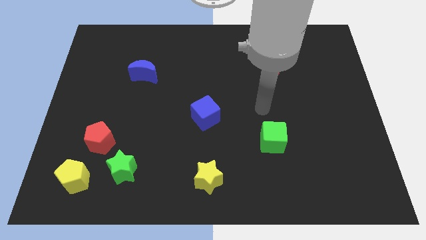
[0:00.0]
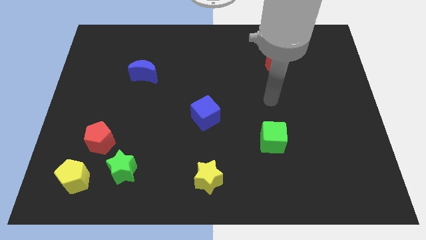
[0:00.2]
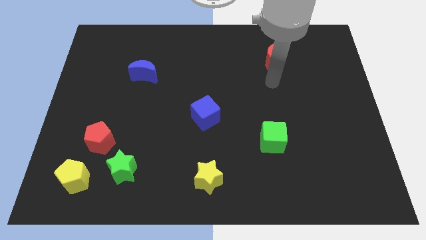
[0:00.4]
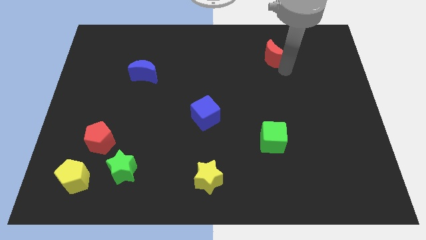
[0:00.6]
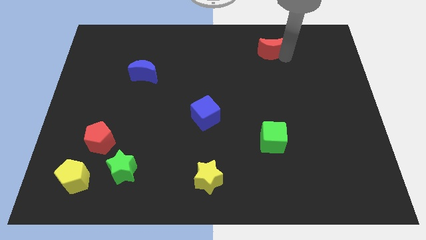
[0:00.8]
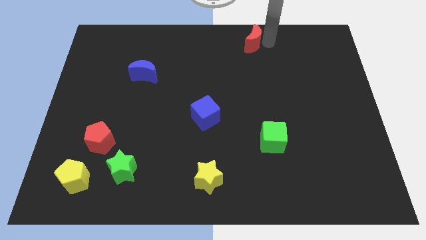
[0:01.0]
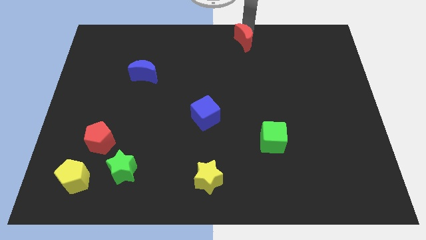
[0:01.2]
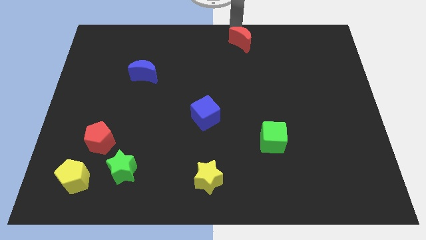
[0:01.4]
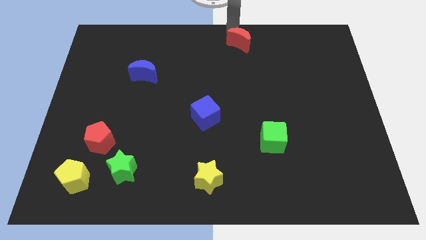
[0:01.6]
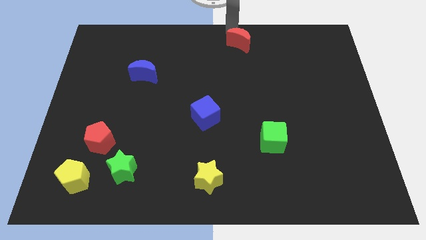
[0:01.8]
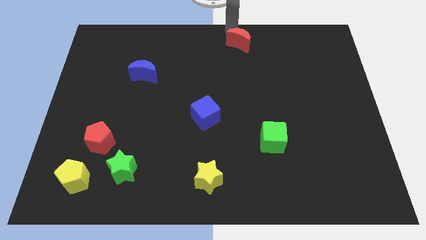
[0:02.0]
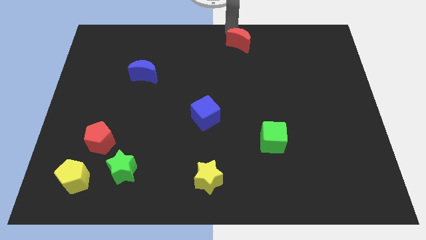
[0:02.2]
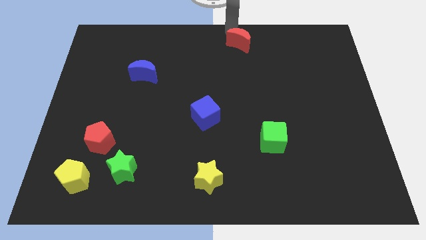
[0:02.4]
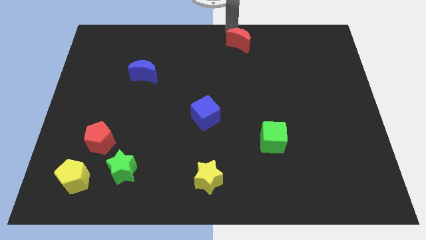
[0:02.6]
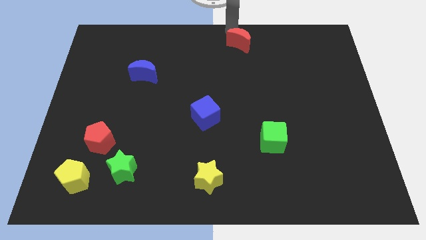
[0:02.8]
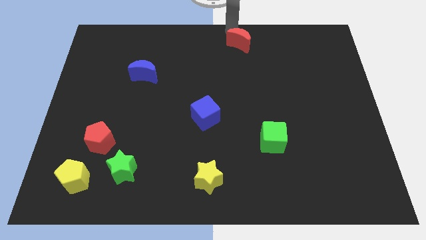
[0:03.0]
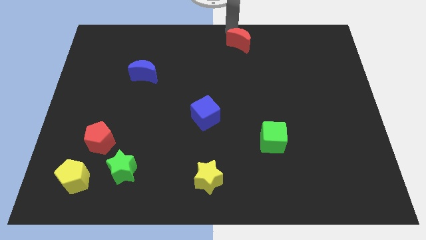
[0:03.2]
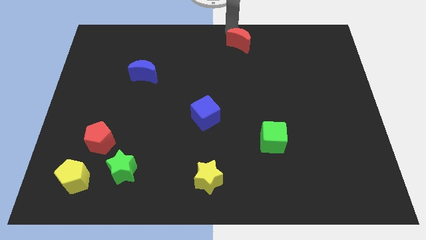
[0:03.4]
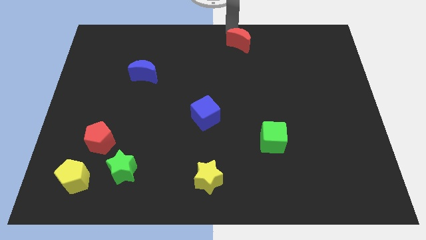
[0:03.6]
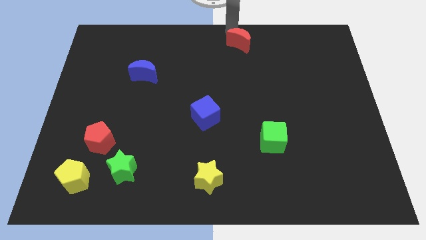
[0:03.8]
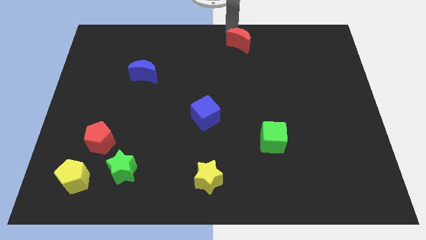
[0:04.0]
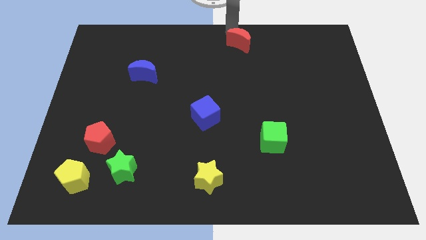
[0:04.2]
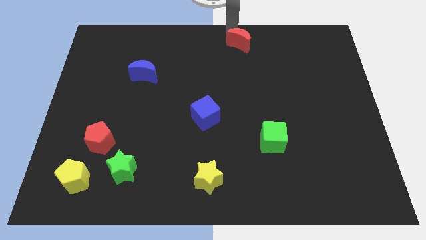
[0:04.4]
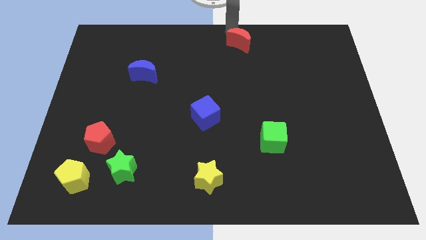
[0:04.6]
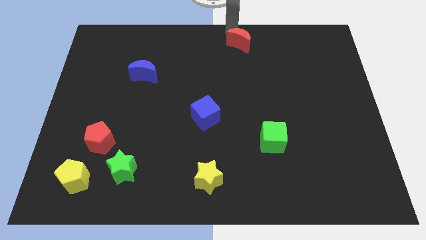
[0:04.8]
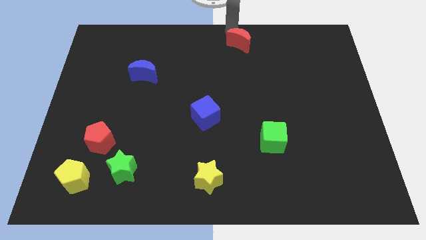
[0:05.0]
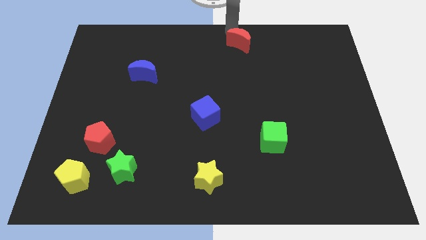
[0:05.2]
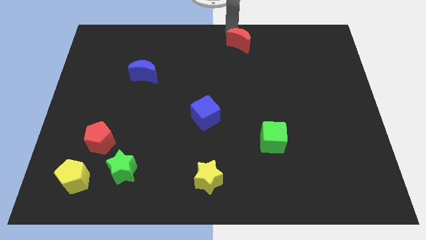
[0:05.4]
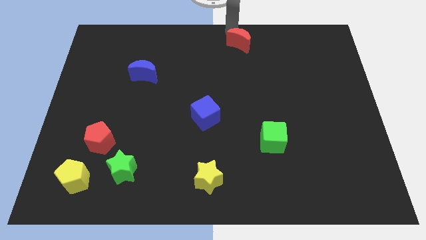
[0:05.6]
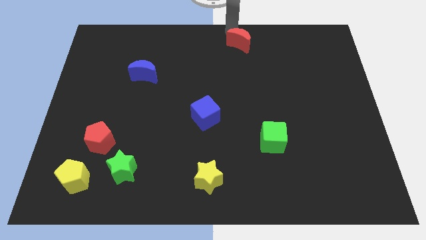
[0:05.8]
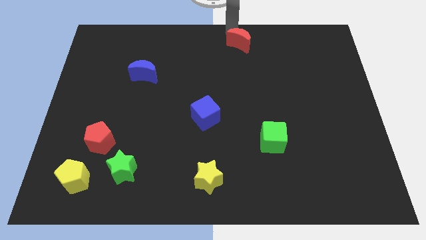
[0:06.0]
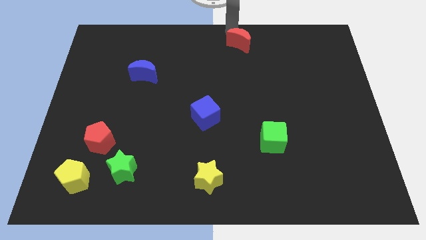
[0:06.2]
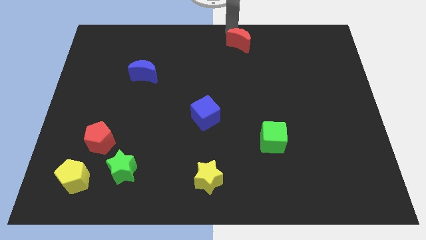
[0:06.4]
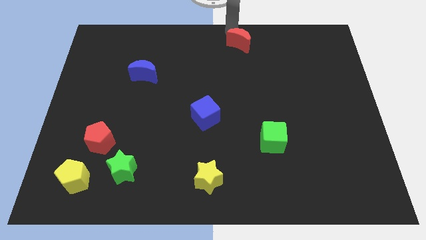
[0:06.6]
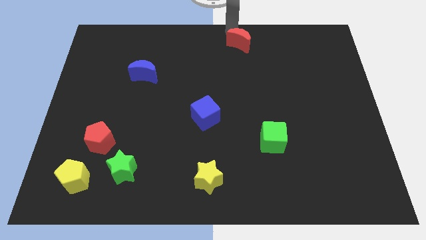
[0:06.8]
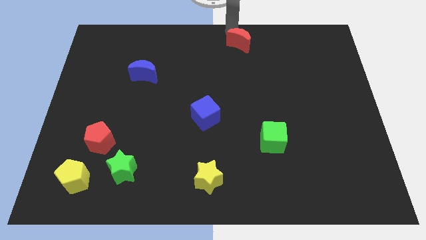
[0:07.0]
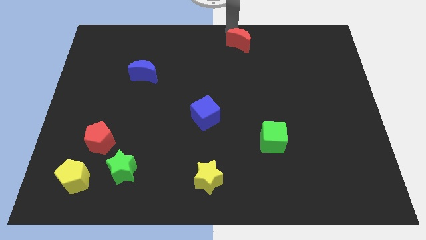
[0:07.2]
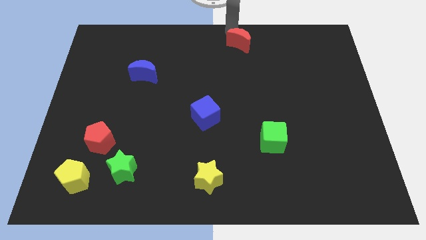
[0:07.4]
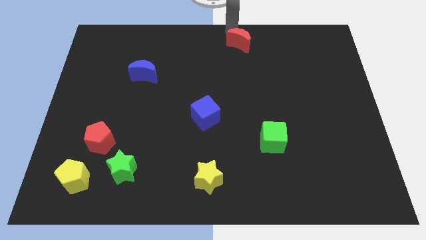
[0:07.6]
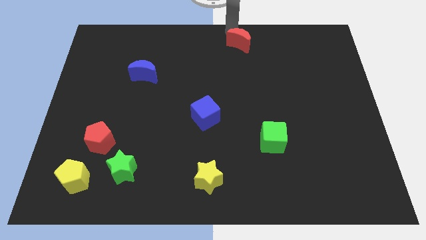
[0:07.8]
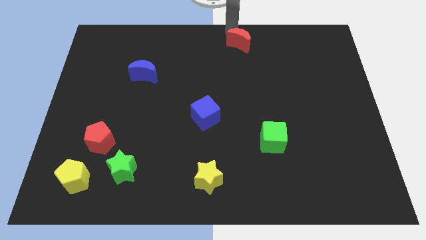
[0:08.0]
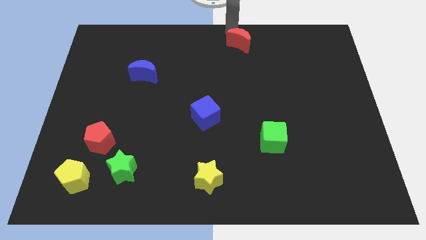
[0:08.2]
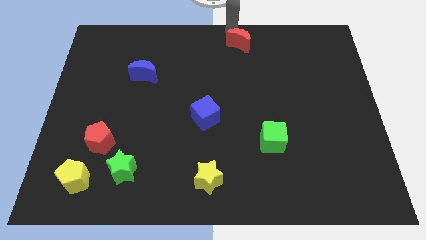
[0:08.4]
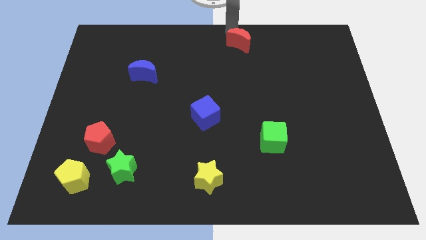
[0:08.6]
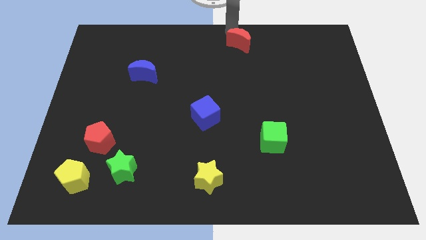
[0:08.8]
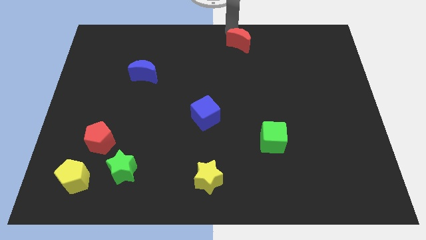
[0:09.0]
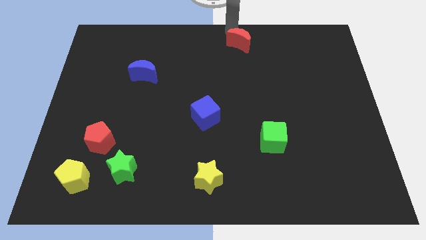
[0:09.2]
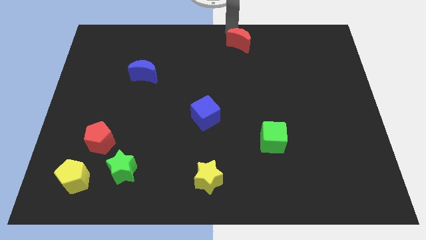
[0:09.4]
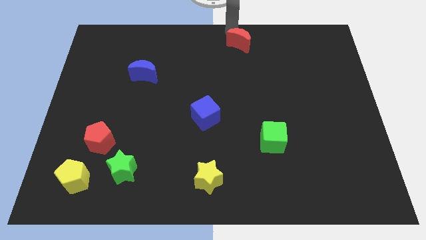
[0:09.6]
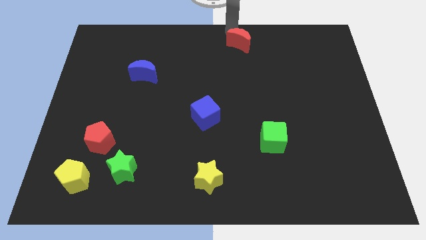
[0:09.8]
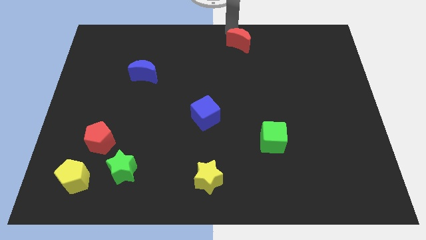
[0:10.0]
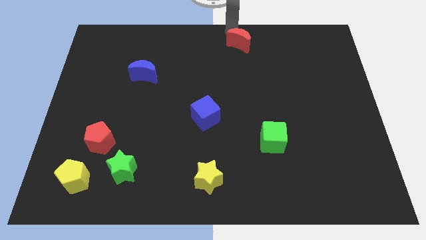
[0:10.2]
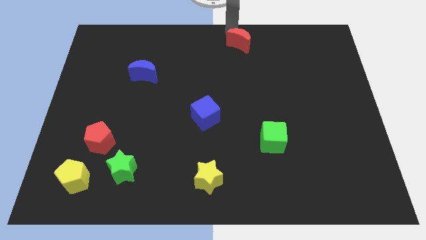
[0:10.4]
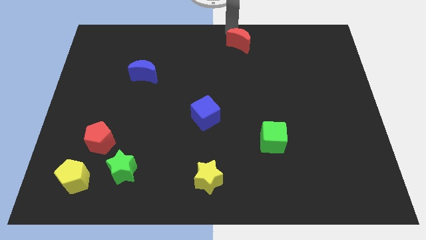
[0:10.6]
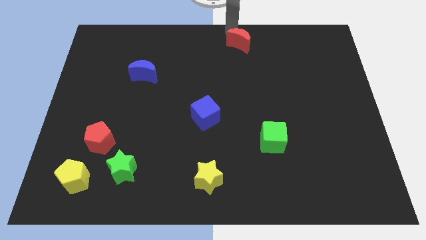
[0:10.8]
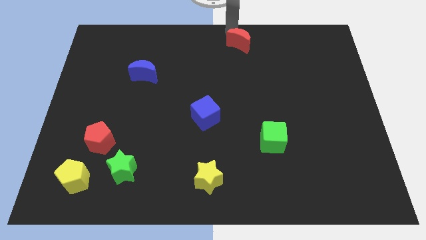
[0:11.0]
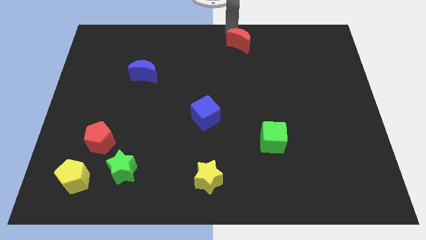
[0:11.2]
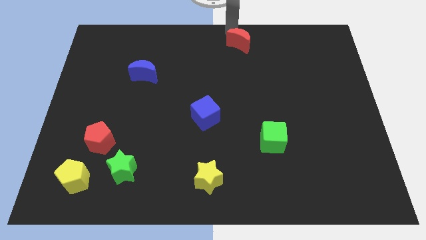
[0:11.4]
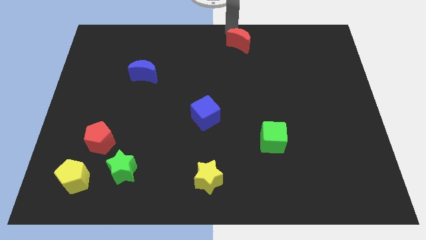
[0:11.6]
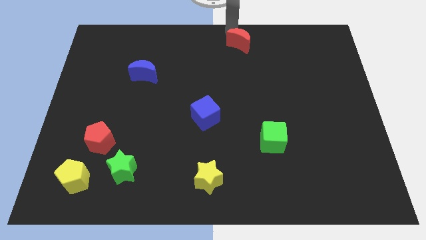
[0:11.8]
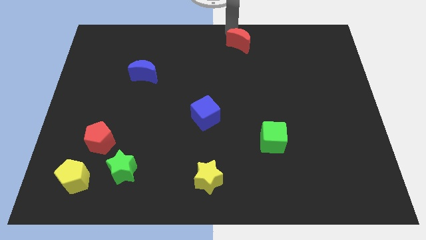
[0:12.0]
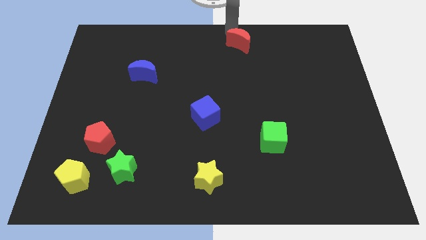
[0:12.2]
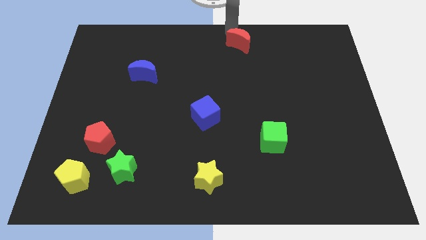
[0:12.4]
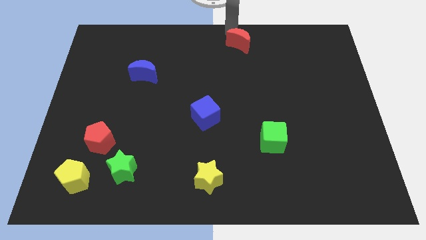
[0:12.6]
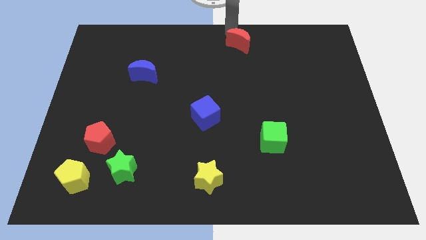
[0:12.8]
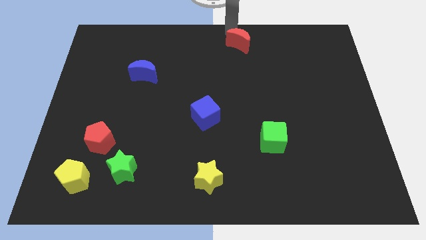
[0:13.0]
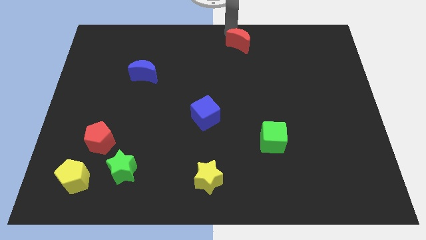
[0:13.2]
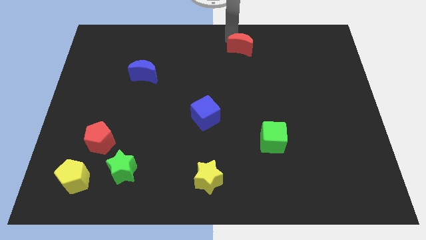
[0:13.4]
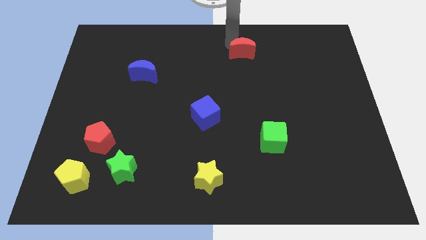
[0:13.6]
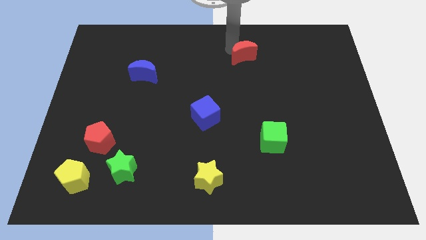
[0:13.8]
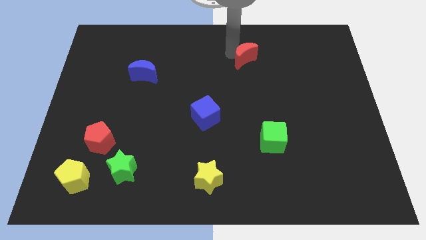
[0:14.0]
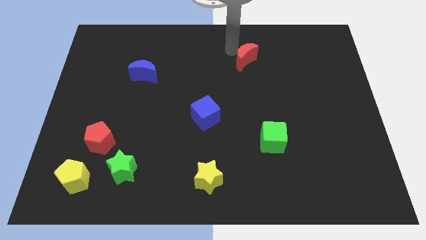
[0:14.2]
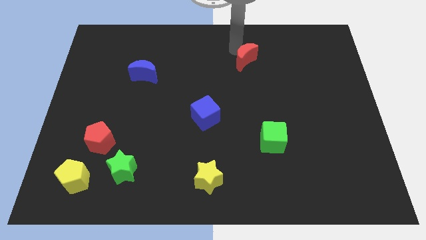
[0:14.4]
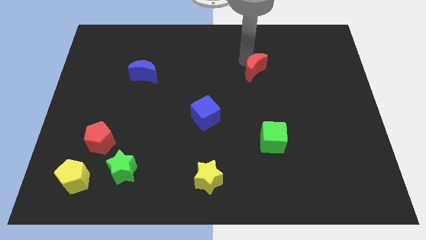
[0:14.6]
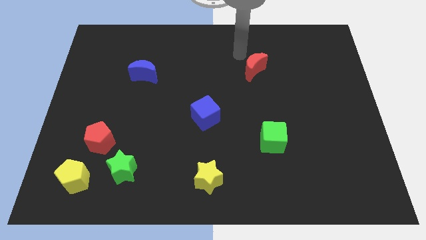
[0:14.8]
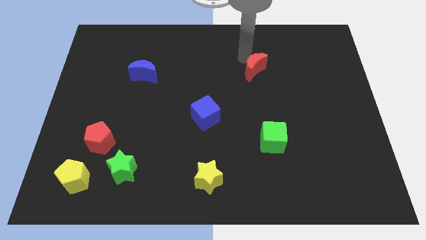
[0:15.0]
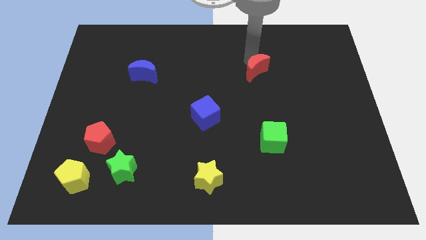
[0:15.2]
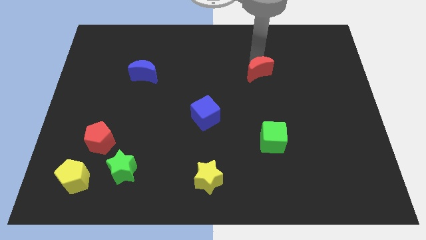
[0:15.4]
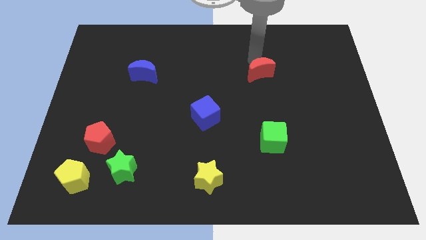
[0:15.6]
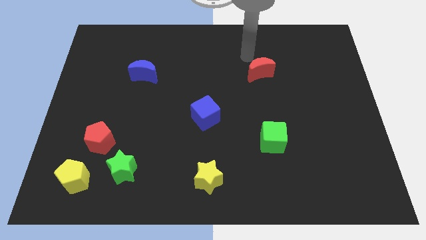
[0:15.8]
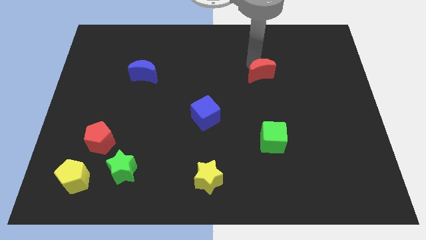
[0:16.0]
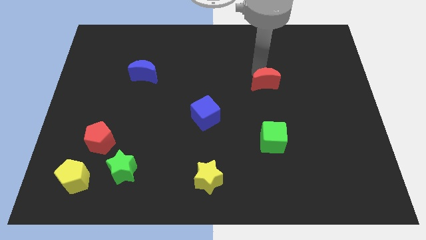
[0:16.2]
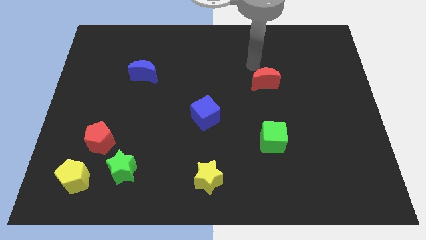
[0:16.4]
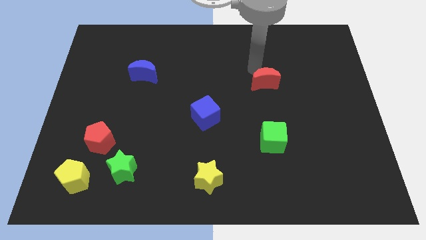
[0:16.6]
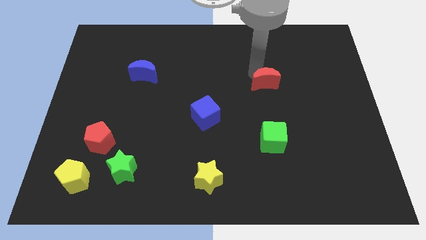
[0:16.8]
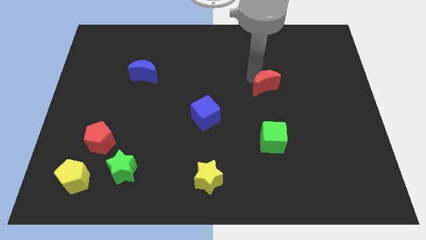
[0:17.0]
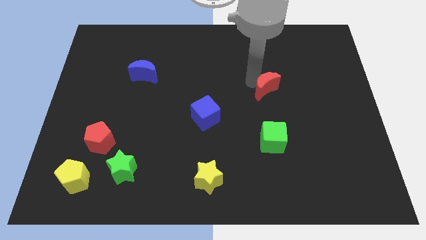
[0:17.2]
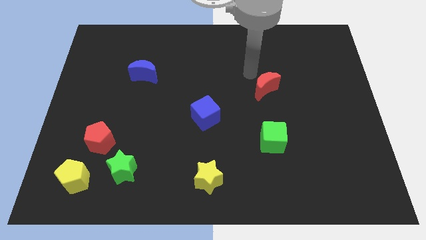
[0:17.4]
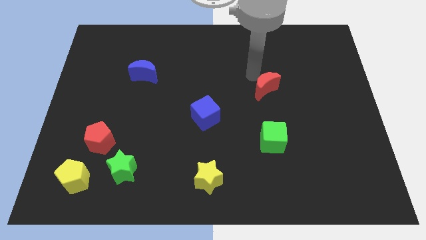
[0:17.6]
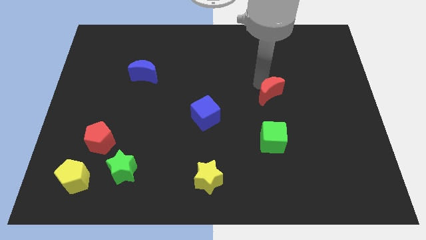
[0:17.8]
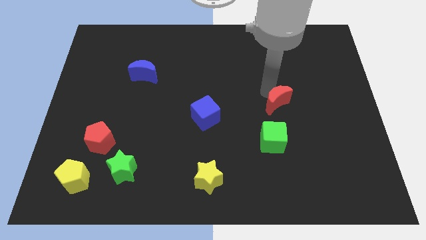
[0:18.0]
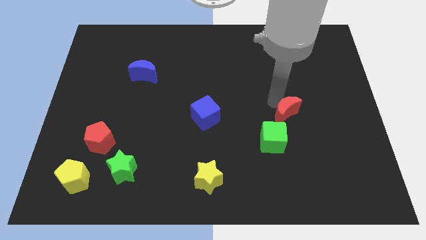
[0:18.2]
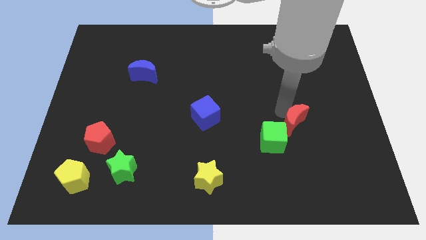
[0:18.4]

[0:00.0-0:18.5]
slide the red moon right of the green cube
